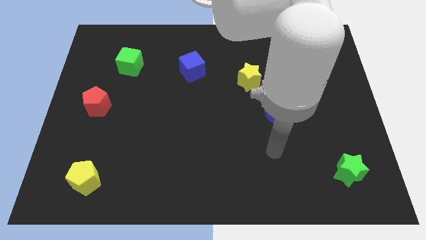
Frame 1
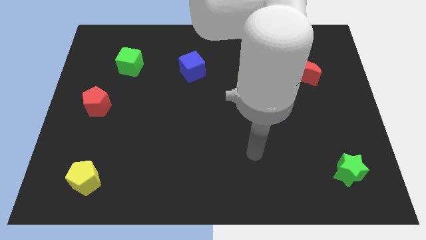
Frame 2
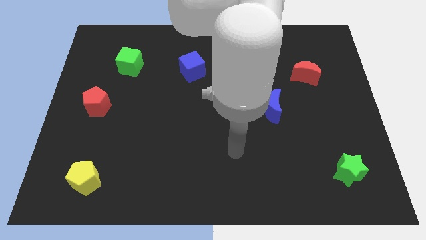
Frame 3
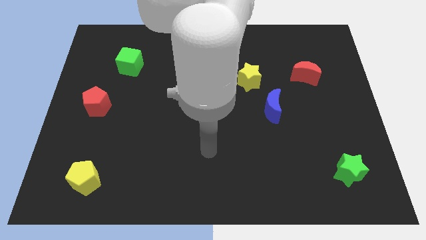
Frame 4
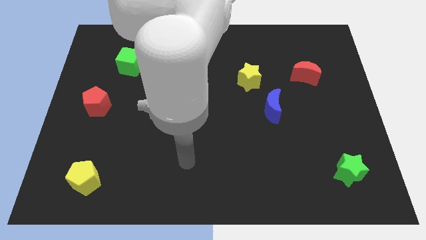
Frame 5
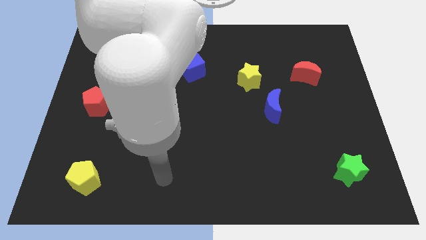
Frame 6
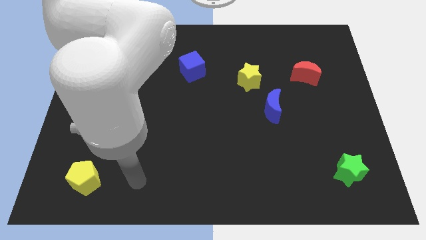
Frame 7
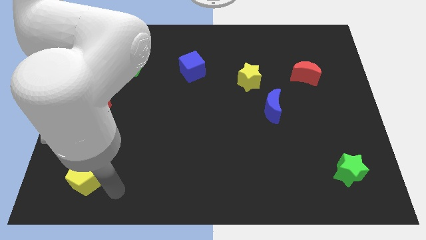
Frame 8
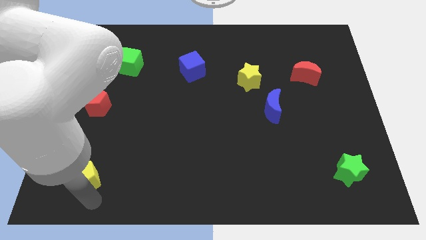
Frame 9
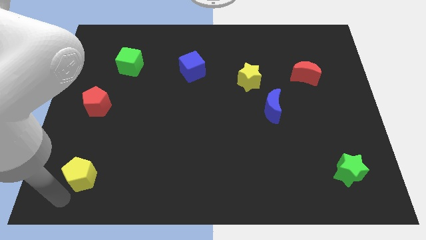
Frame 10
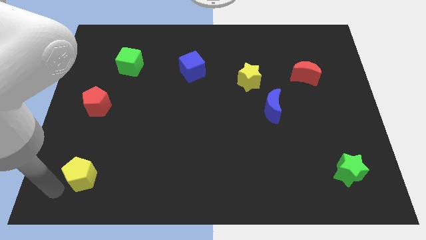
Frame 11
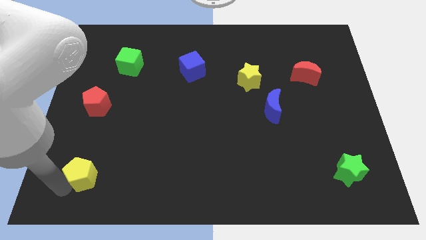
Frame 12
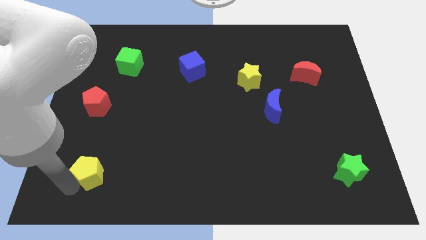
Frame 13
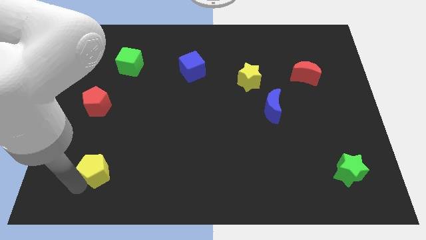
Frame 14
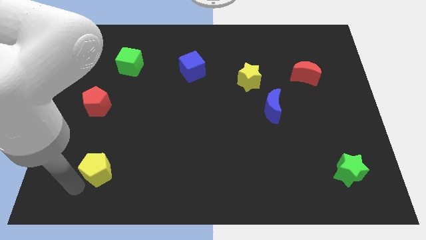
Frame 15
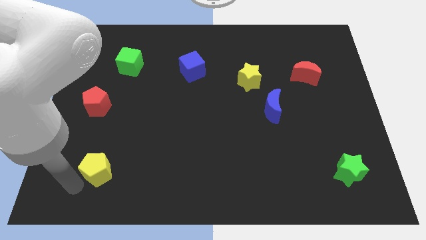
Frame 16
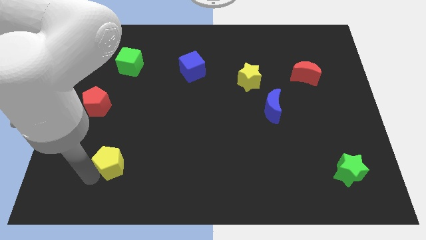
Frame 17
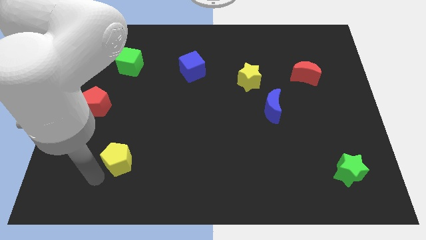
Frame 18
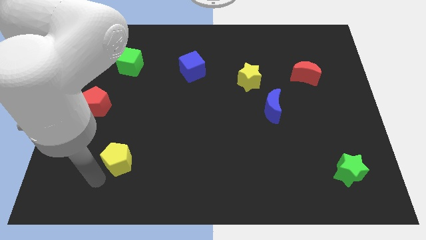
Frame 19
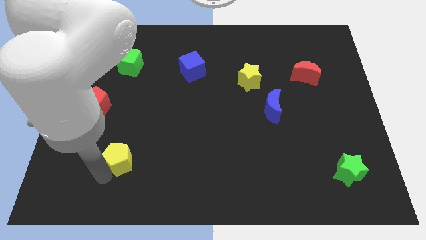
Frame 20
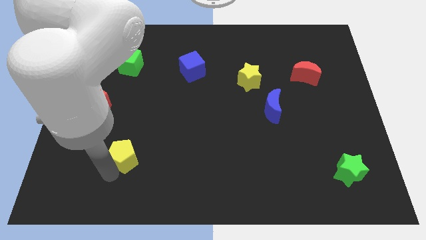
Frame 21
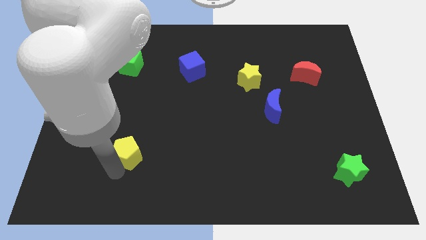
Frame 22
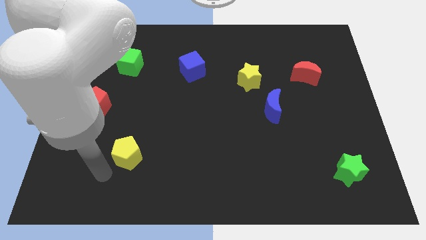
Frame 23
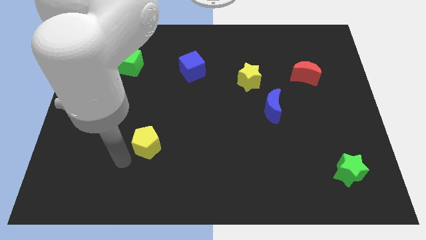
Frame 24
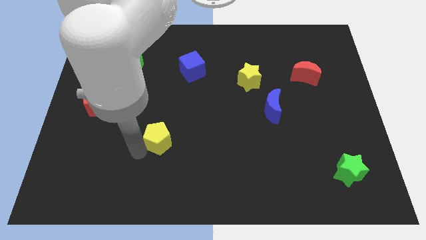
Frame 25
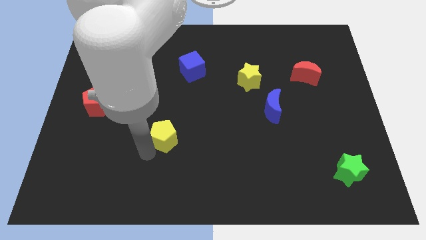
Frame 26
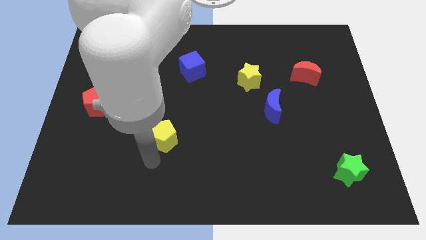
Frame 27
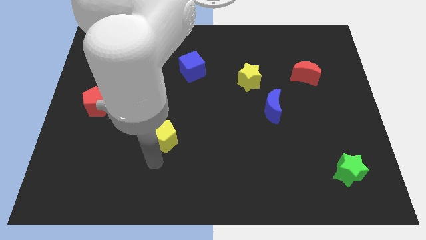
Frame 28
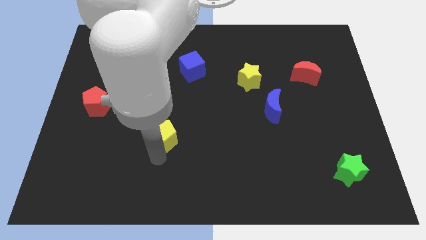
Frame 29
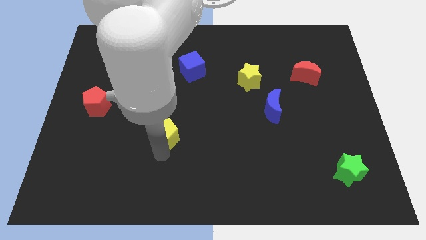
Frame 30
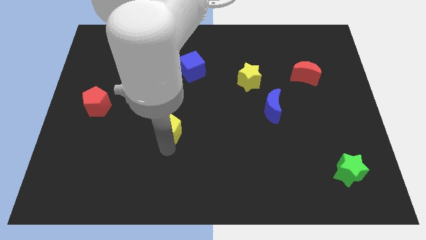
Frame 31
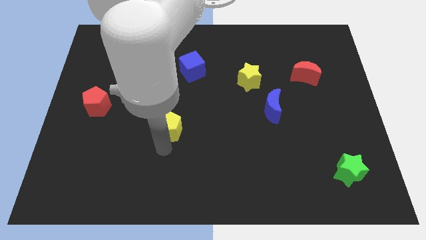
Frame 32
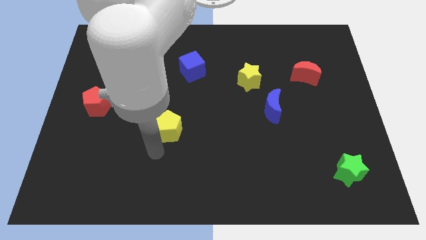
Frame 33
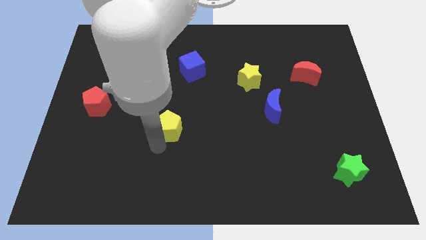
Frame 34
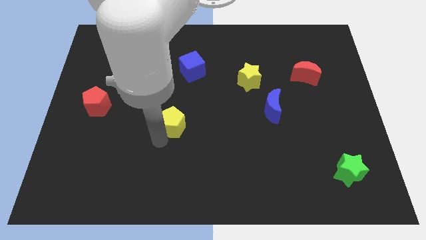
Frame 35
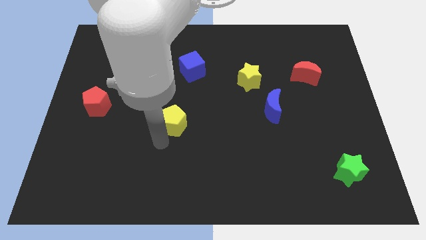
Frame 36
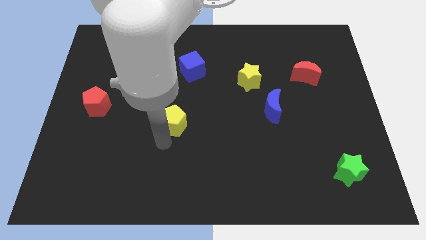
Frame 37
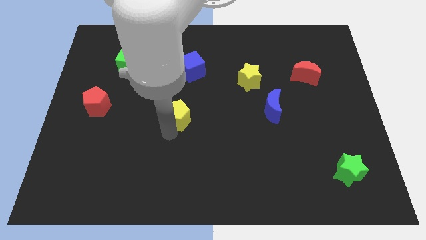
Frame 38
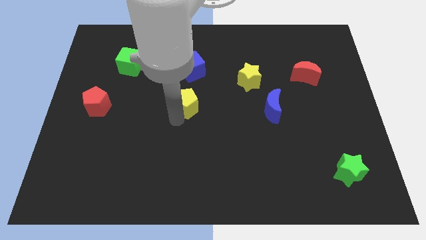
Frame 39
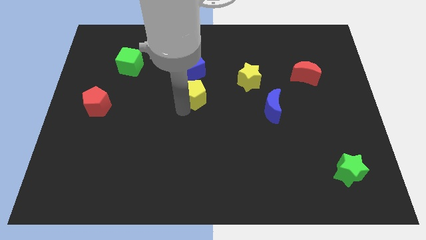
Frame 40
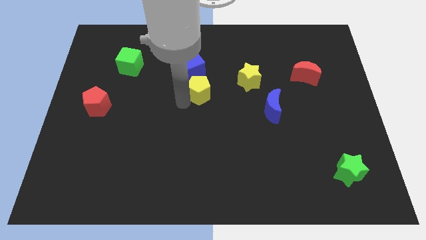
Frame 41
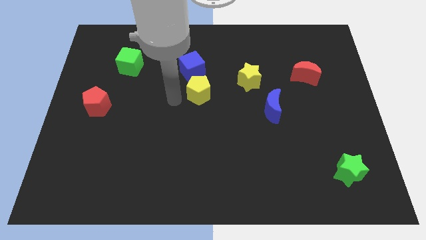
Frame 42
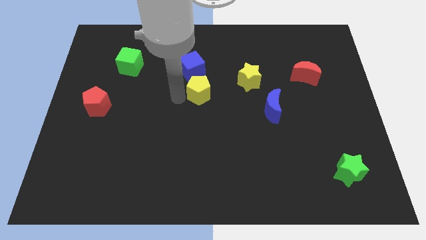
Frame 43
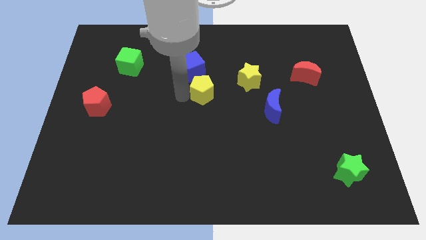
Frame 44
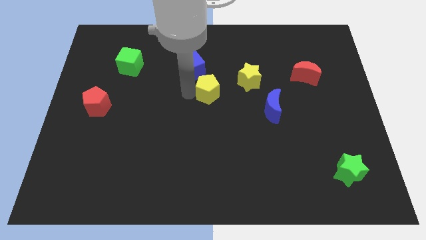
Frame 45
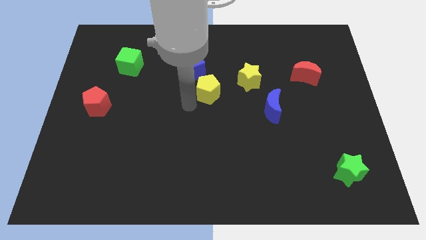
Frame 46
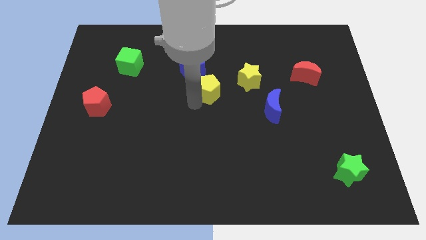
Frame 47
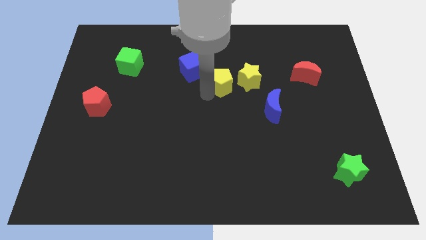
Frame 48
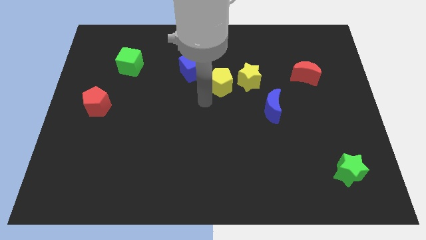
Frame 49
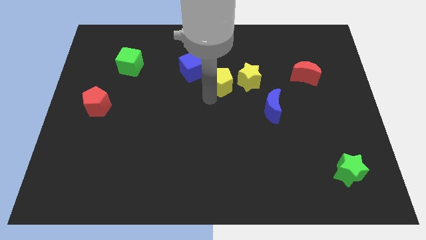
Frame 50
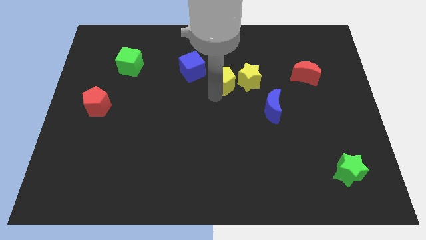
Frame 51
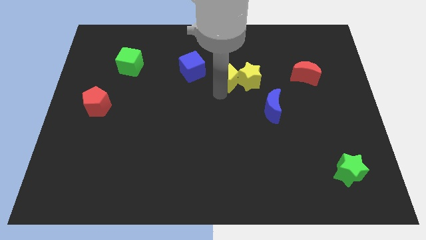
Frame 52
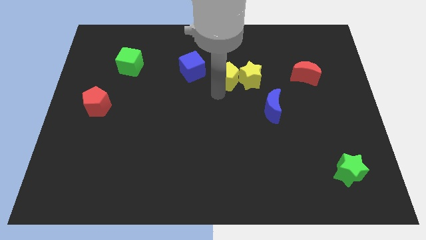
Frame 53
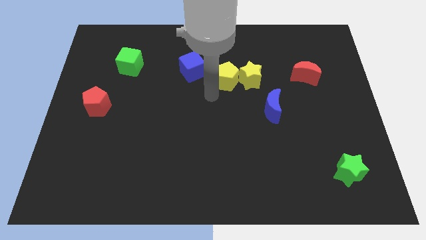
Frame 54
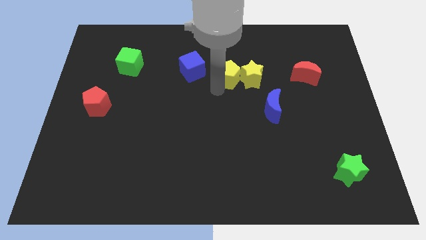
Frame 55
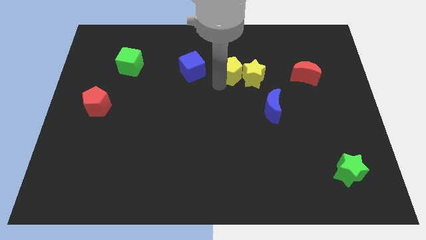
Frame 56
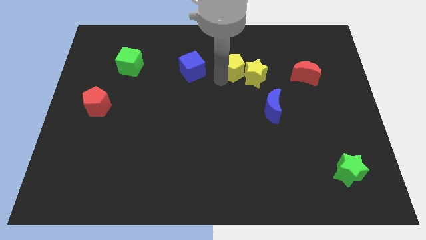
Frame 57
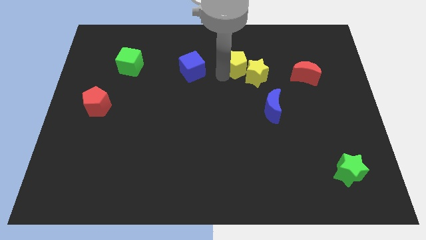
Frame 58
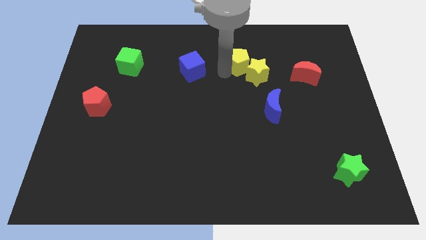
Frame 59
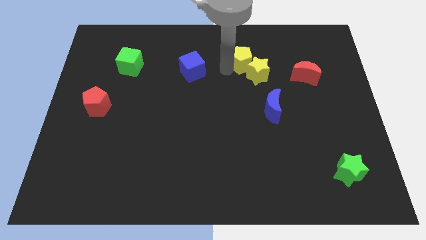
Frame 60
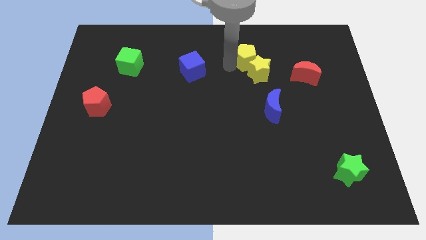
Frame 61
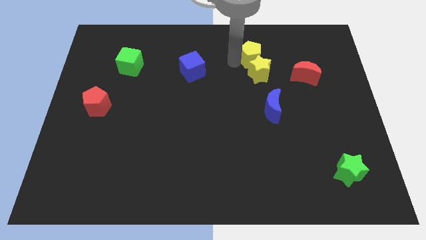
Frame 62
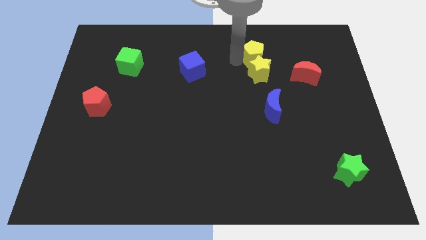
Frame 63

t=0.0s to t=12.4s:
move the yellow pentagon to the top right side of the yellow star
